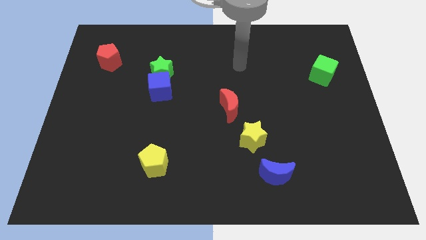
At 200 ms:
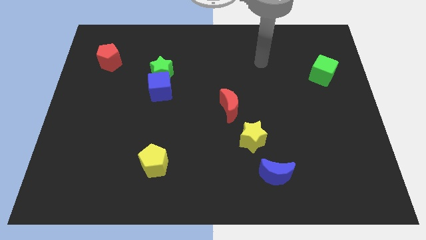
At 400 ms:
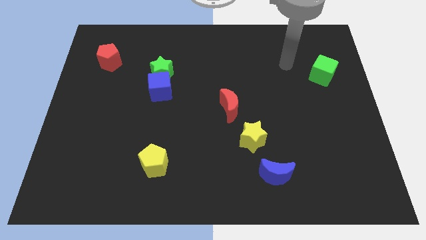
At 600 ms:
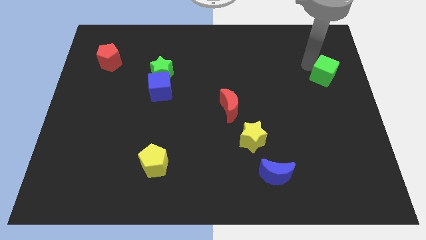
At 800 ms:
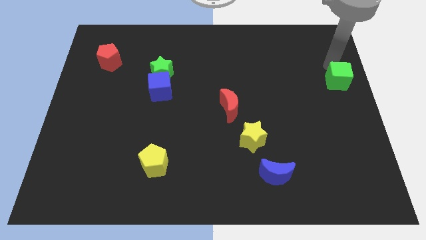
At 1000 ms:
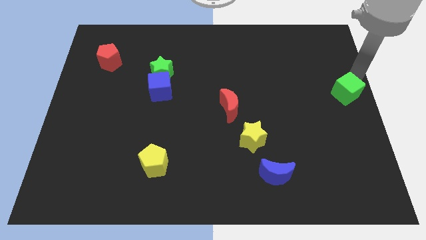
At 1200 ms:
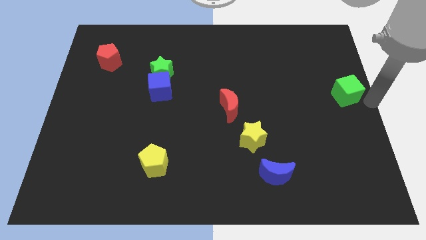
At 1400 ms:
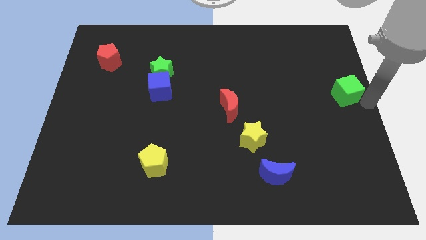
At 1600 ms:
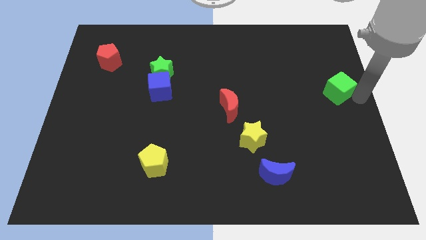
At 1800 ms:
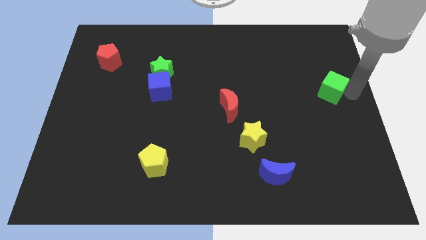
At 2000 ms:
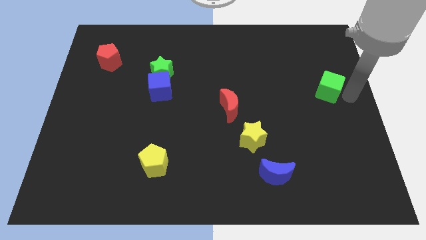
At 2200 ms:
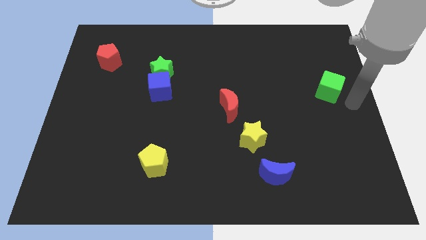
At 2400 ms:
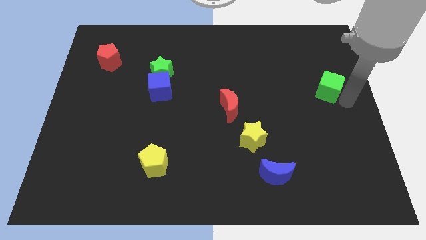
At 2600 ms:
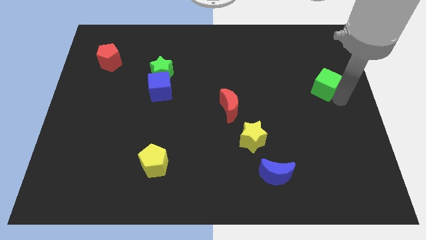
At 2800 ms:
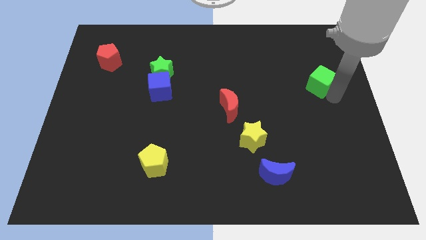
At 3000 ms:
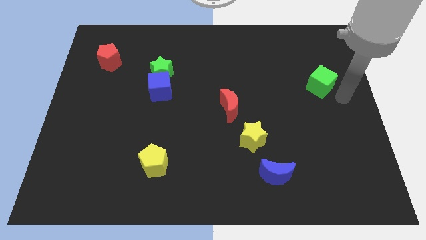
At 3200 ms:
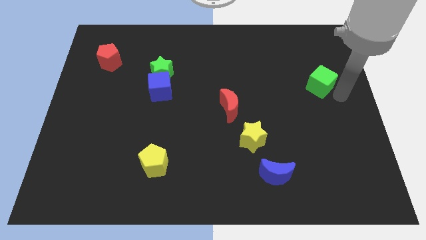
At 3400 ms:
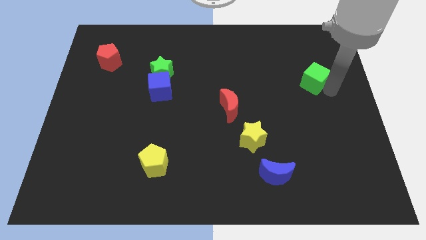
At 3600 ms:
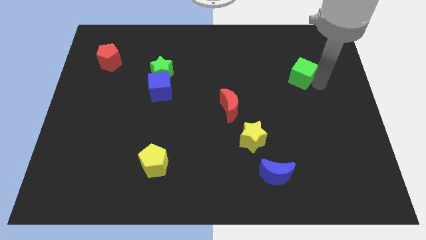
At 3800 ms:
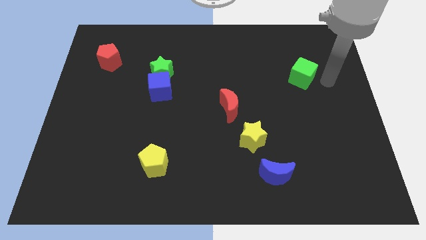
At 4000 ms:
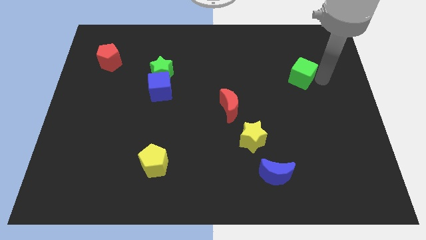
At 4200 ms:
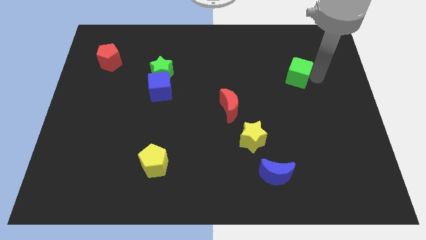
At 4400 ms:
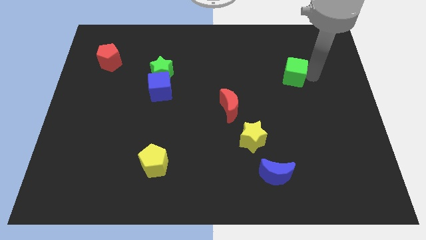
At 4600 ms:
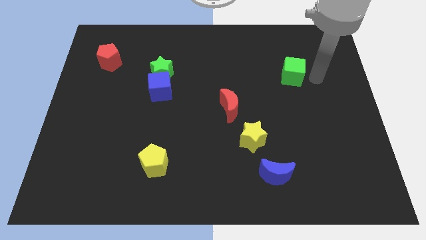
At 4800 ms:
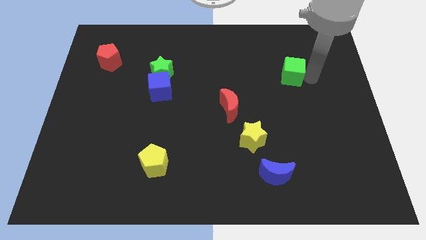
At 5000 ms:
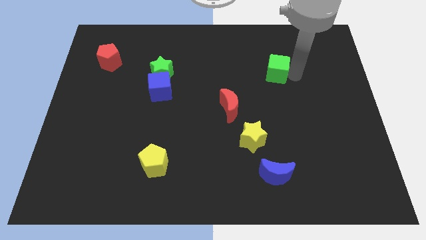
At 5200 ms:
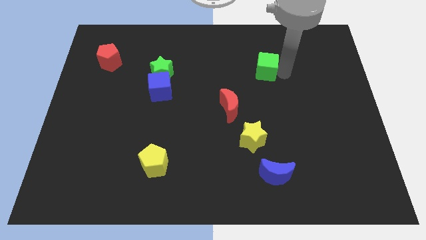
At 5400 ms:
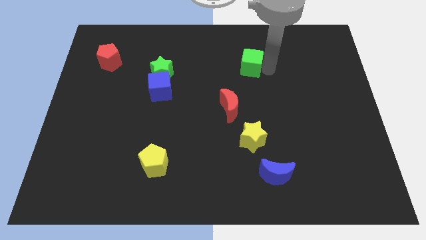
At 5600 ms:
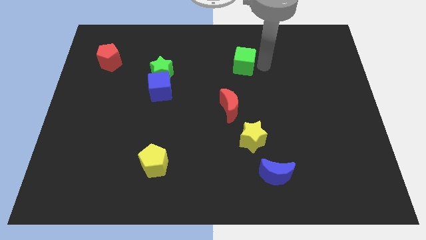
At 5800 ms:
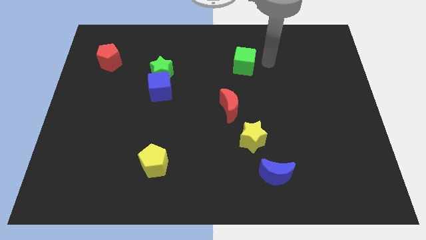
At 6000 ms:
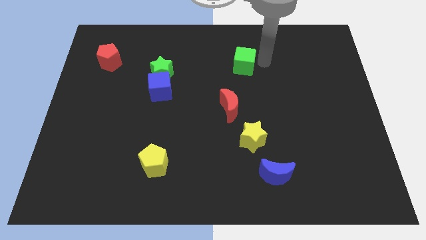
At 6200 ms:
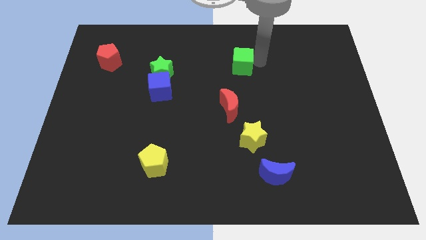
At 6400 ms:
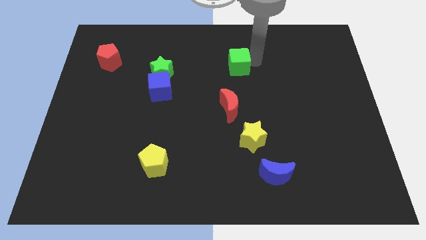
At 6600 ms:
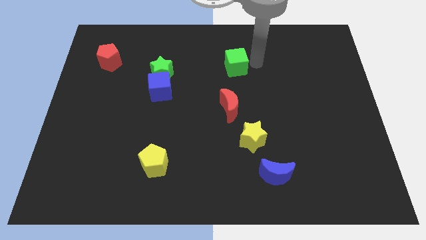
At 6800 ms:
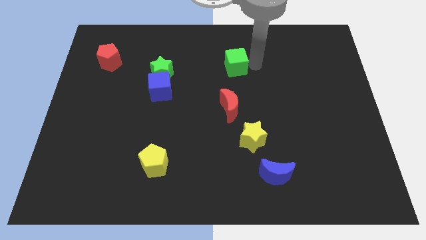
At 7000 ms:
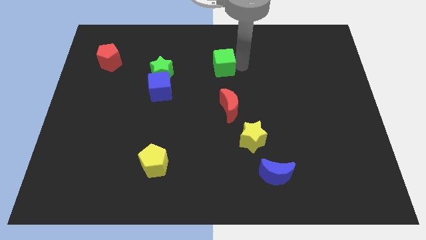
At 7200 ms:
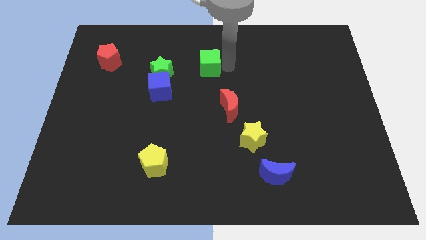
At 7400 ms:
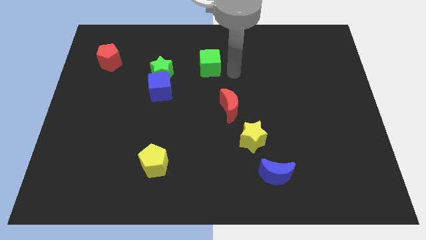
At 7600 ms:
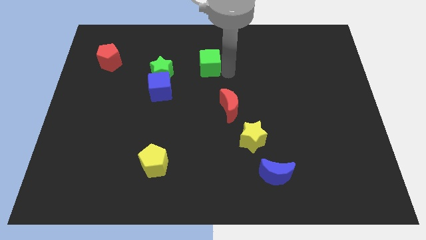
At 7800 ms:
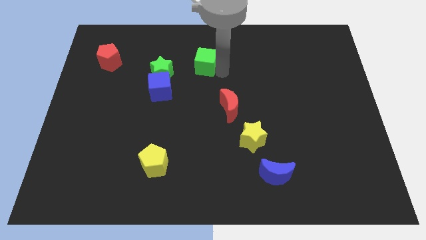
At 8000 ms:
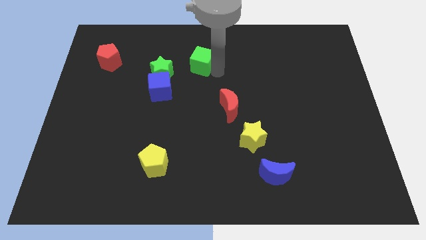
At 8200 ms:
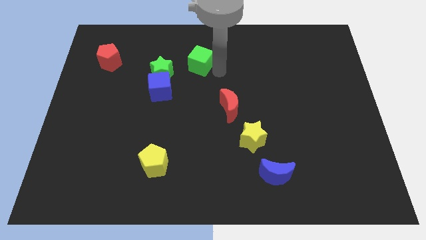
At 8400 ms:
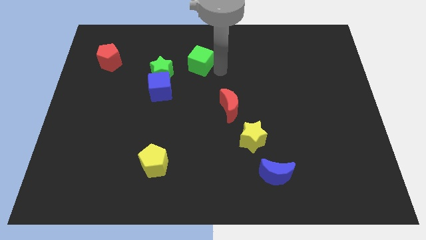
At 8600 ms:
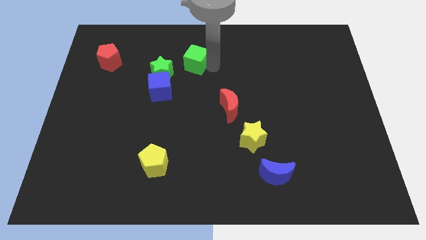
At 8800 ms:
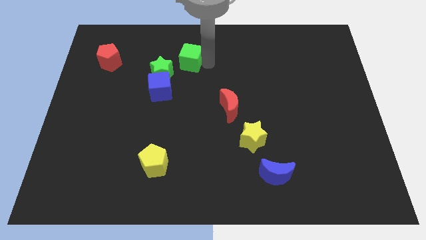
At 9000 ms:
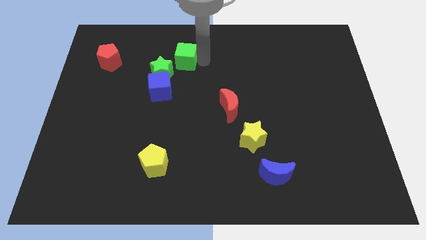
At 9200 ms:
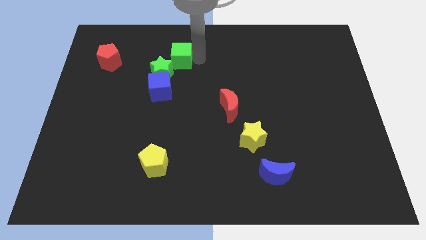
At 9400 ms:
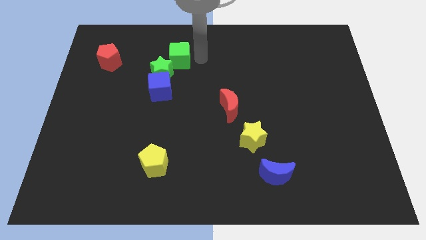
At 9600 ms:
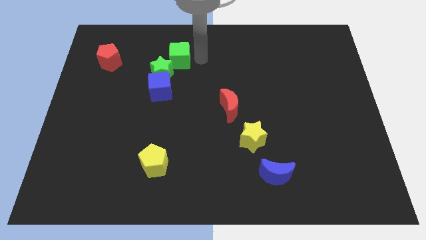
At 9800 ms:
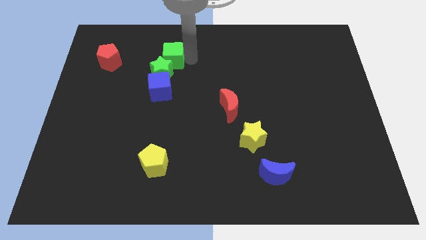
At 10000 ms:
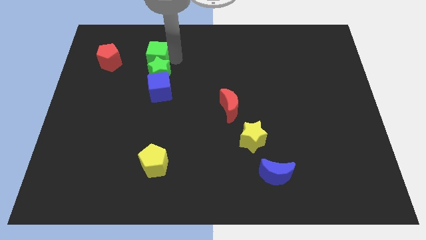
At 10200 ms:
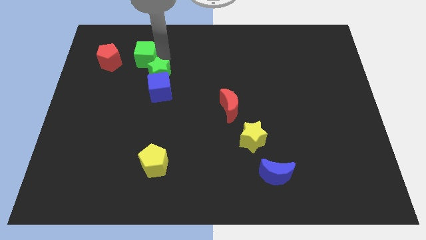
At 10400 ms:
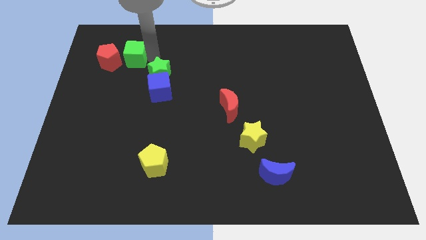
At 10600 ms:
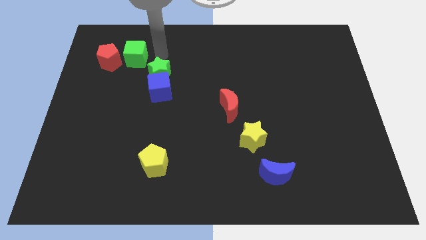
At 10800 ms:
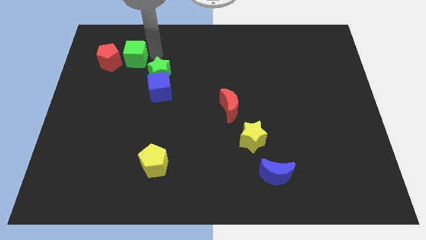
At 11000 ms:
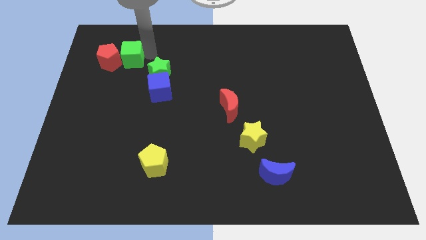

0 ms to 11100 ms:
move the green cube close to the red pentagon

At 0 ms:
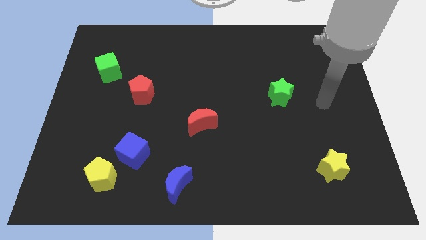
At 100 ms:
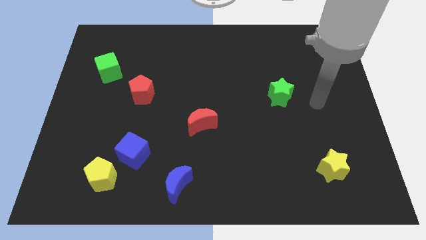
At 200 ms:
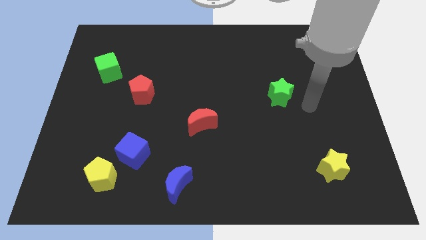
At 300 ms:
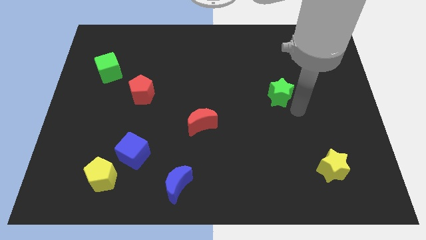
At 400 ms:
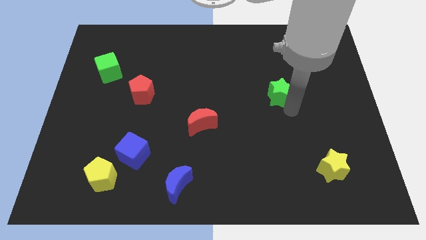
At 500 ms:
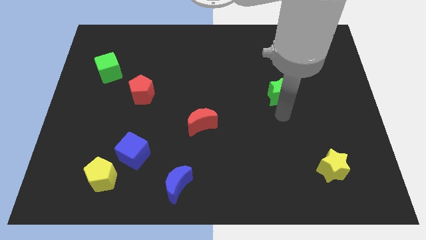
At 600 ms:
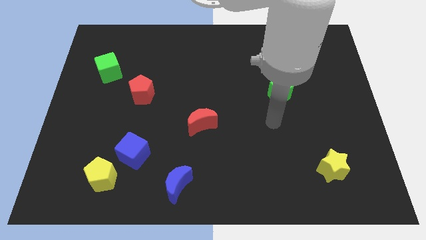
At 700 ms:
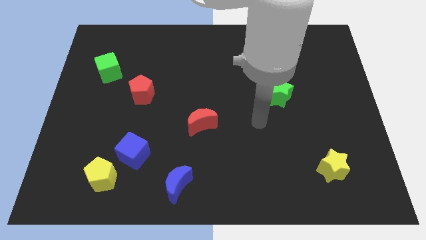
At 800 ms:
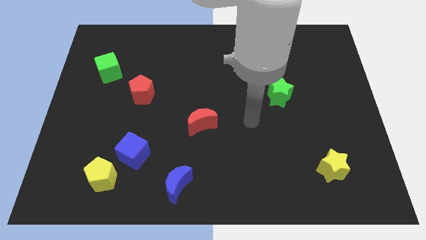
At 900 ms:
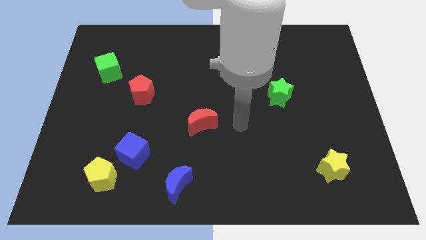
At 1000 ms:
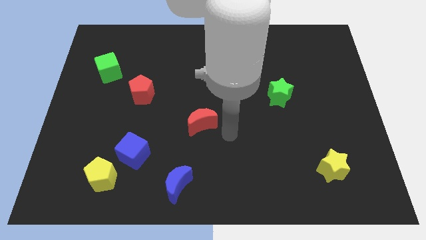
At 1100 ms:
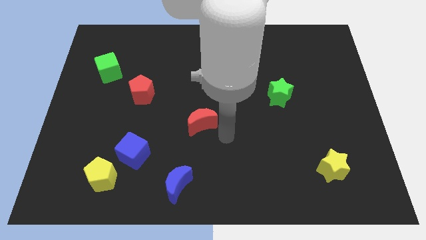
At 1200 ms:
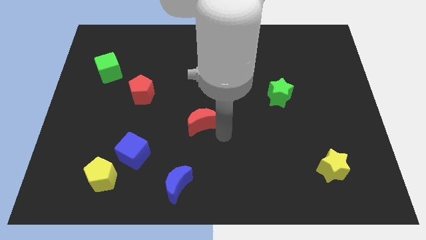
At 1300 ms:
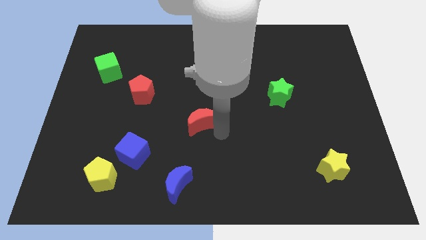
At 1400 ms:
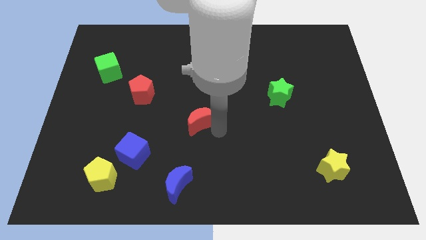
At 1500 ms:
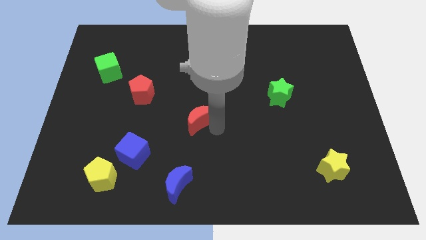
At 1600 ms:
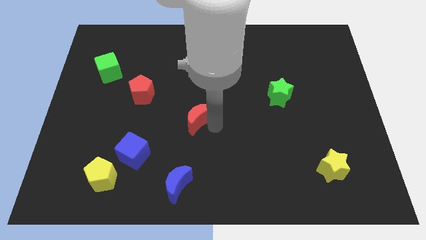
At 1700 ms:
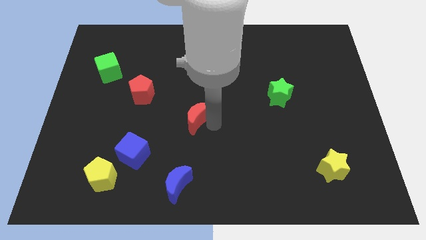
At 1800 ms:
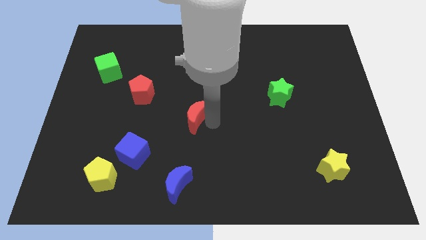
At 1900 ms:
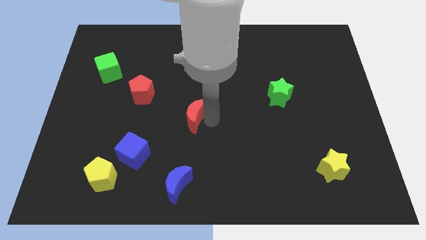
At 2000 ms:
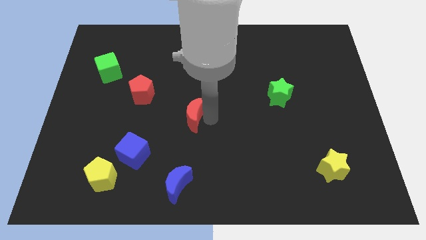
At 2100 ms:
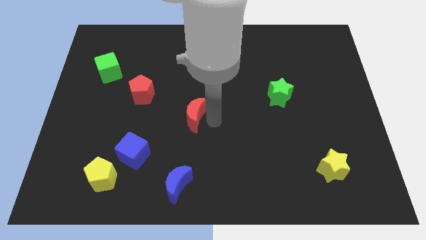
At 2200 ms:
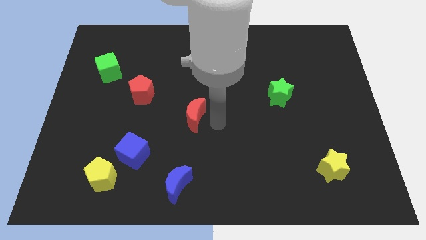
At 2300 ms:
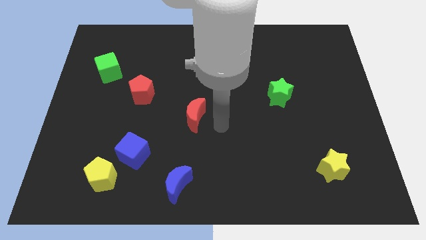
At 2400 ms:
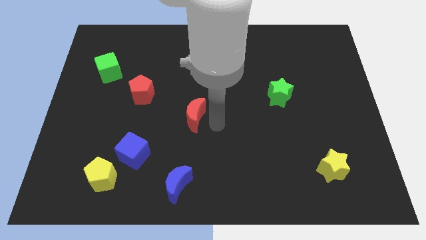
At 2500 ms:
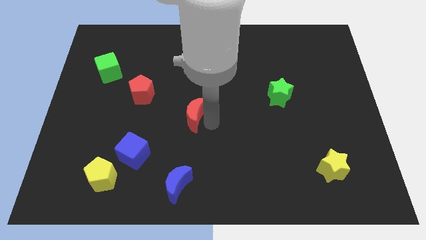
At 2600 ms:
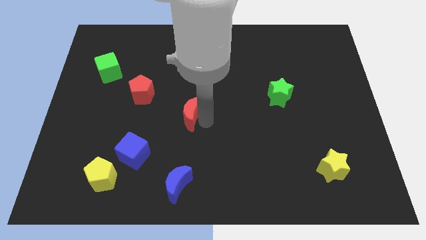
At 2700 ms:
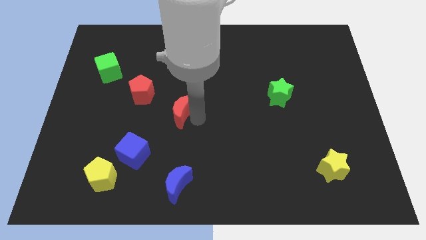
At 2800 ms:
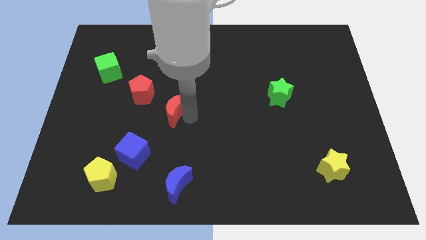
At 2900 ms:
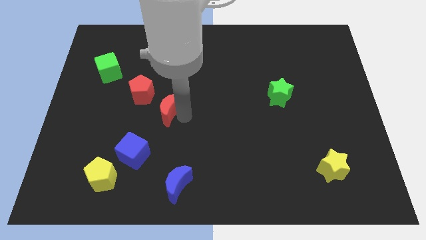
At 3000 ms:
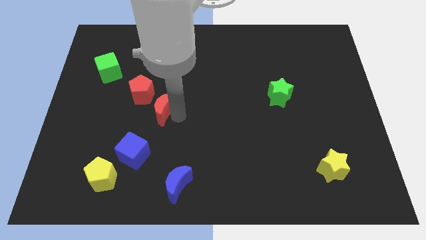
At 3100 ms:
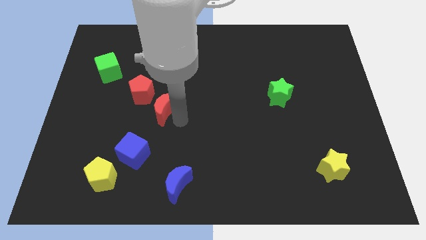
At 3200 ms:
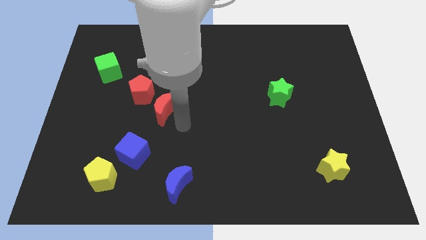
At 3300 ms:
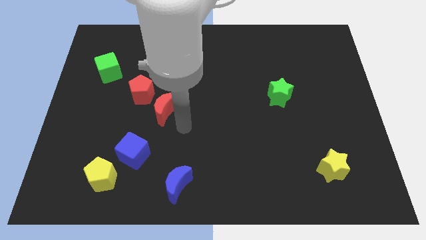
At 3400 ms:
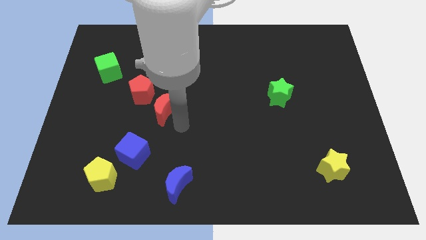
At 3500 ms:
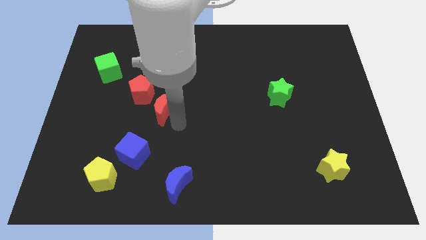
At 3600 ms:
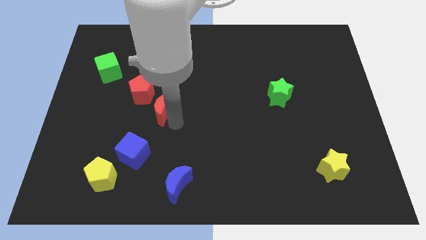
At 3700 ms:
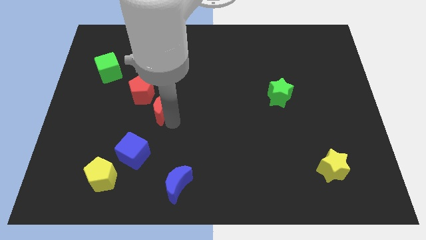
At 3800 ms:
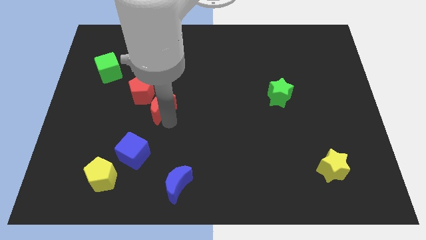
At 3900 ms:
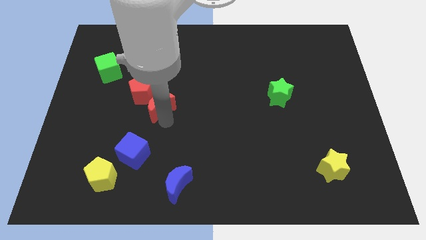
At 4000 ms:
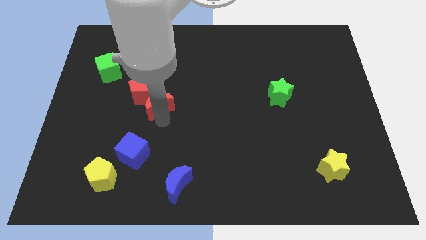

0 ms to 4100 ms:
put the red moon towards the red pentagon
